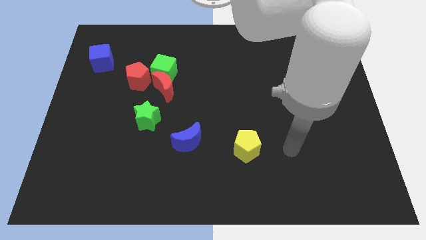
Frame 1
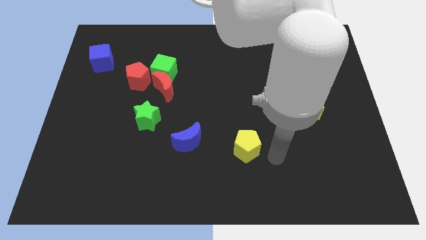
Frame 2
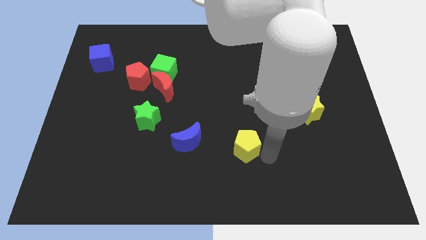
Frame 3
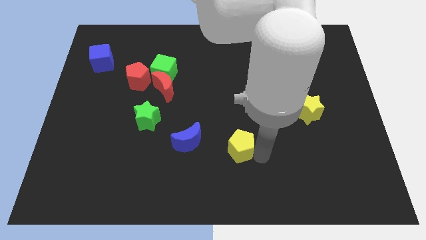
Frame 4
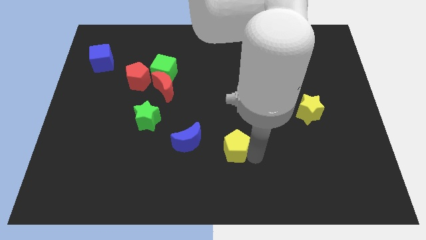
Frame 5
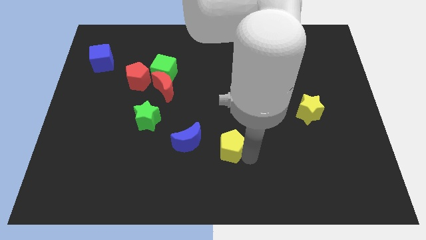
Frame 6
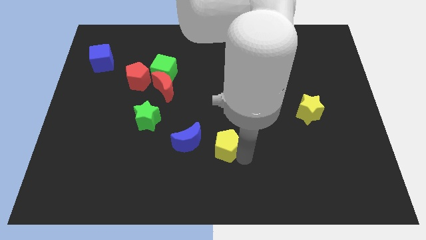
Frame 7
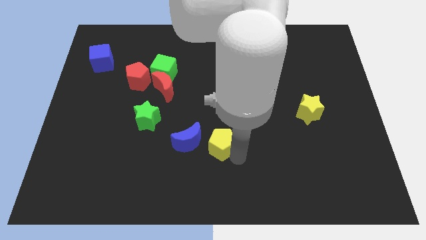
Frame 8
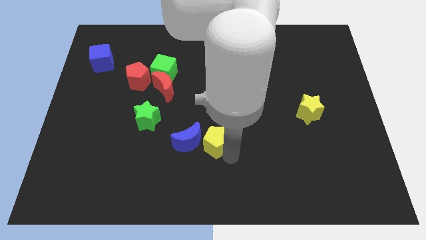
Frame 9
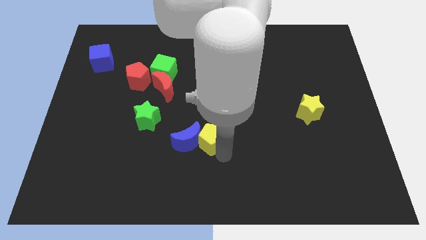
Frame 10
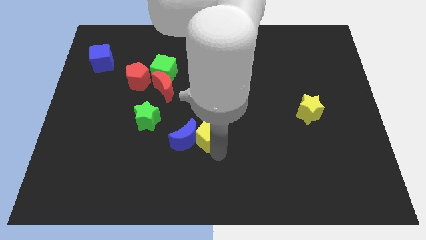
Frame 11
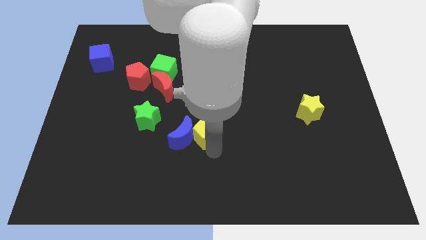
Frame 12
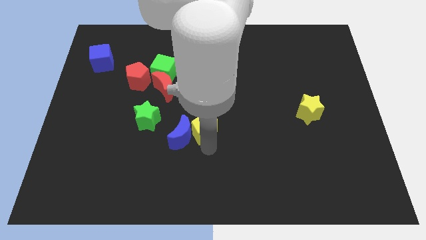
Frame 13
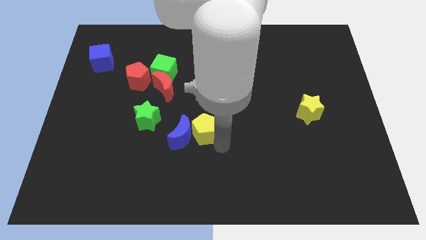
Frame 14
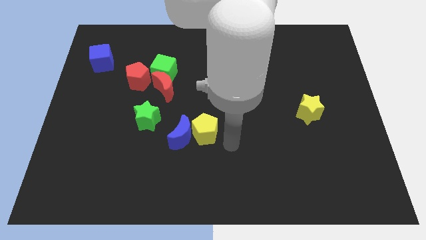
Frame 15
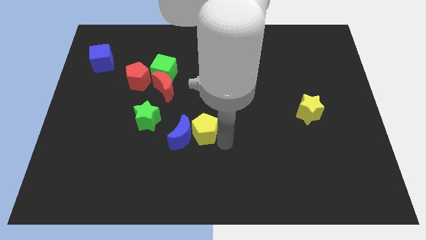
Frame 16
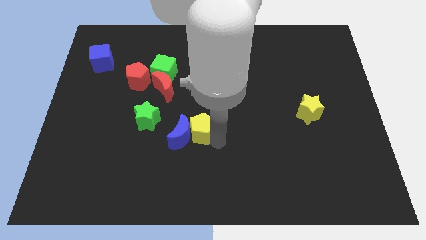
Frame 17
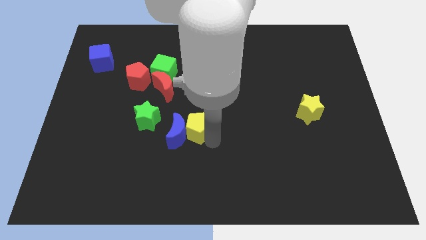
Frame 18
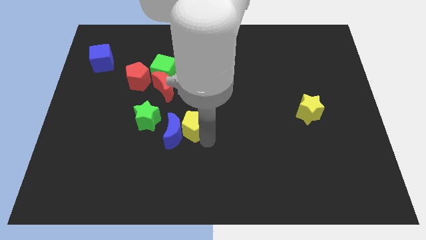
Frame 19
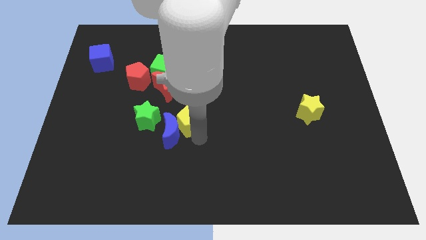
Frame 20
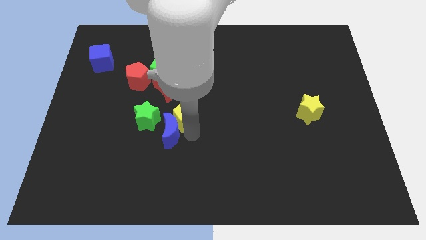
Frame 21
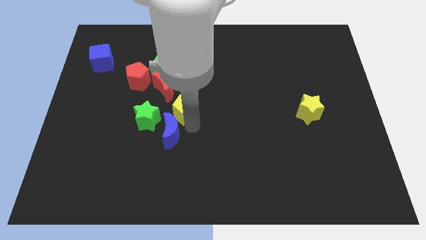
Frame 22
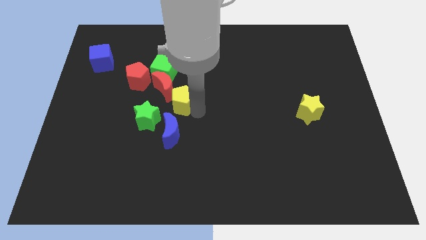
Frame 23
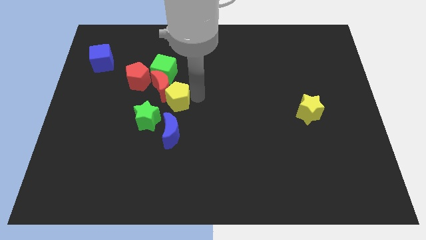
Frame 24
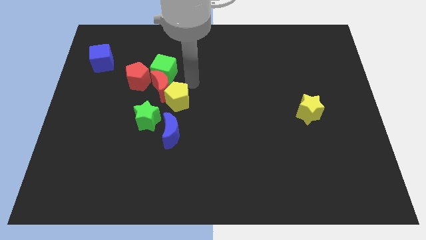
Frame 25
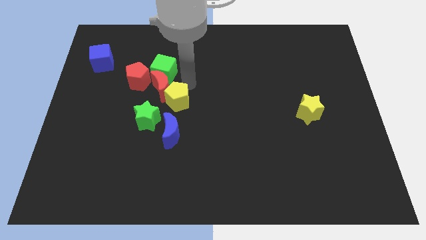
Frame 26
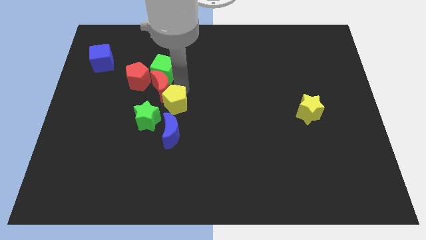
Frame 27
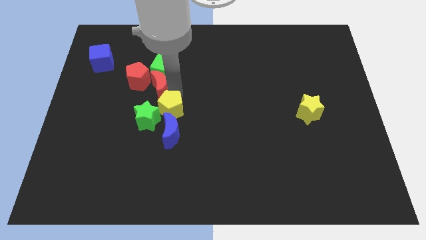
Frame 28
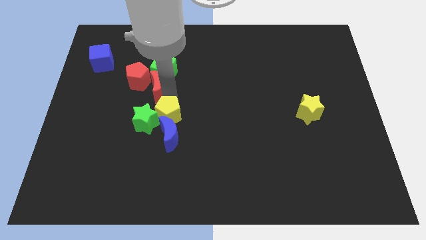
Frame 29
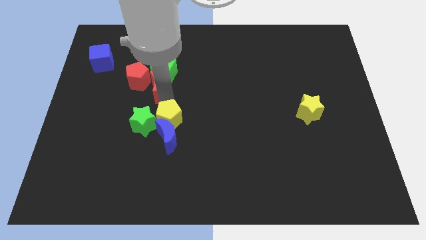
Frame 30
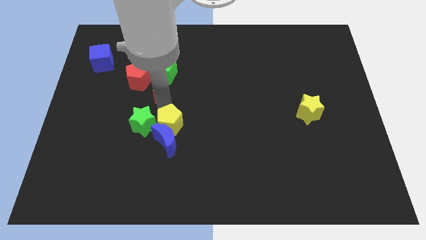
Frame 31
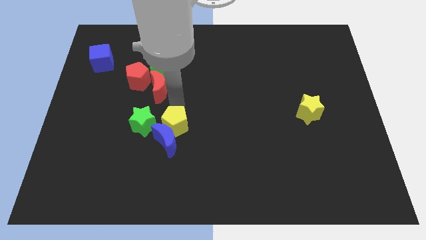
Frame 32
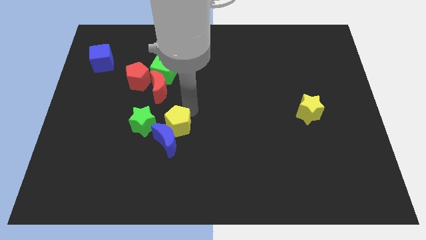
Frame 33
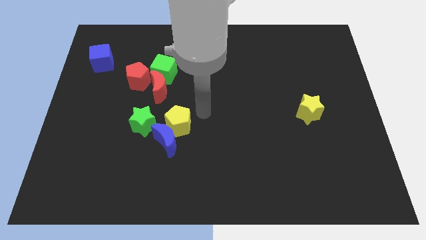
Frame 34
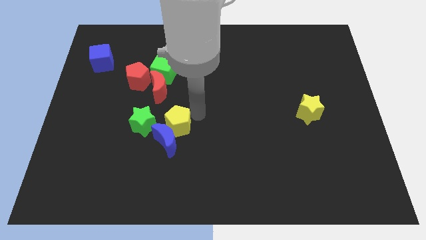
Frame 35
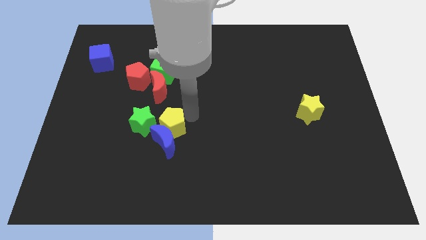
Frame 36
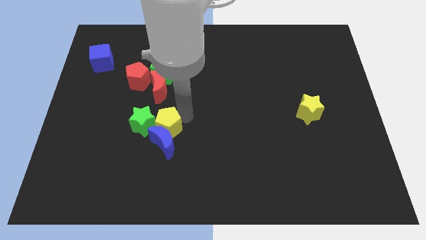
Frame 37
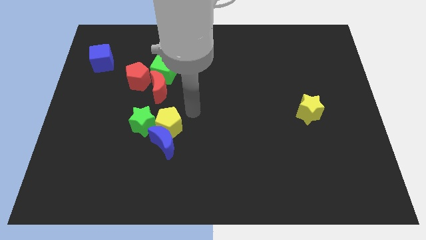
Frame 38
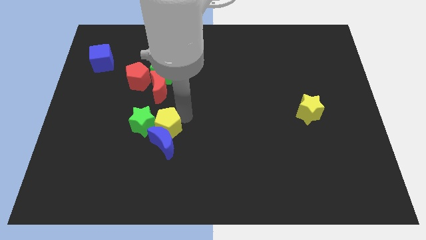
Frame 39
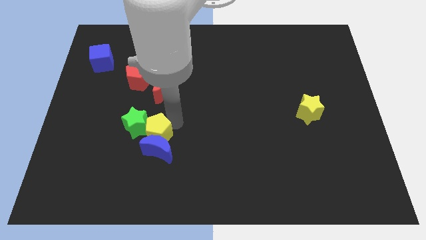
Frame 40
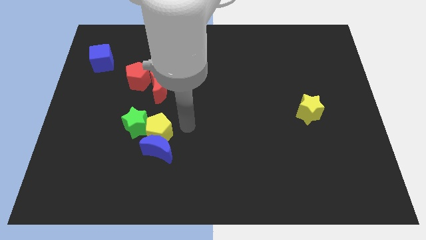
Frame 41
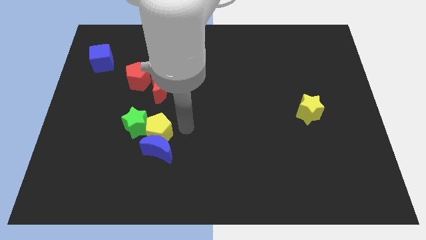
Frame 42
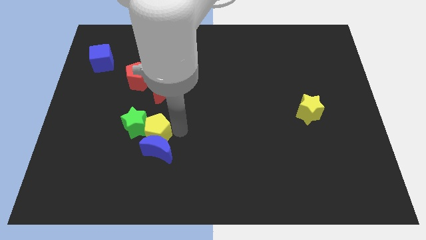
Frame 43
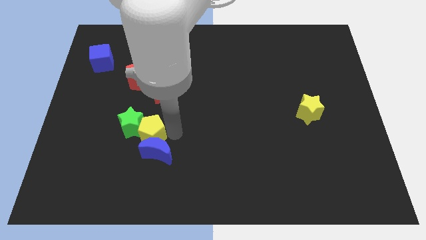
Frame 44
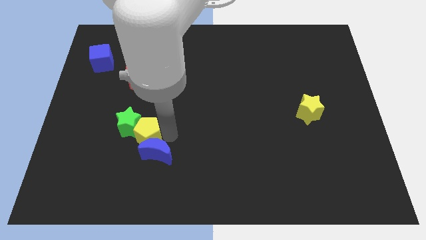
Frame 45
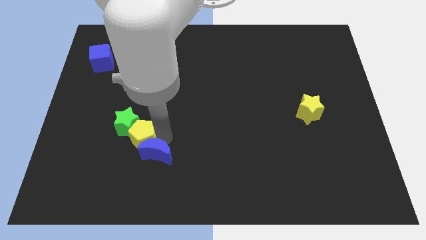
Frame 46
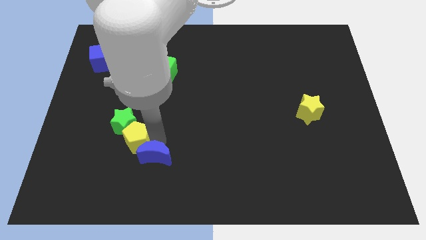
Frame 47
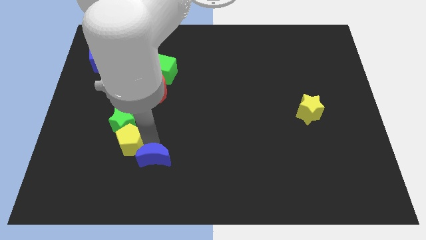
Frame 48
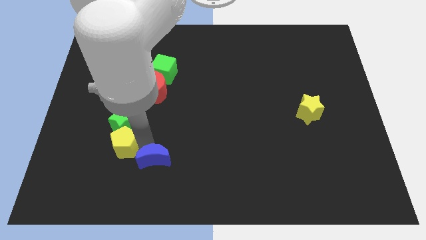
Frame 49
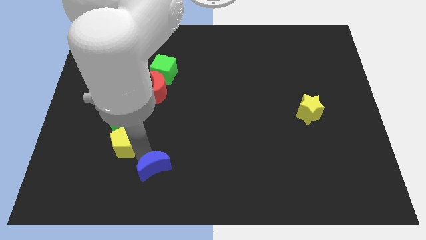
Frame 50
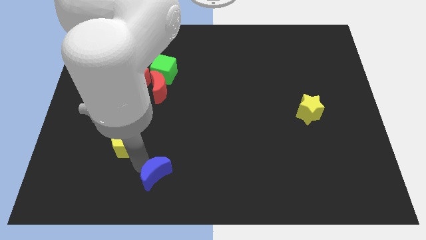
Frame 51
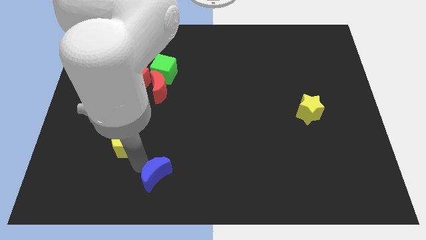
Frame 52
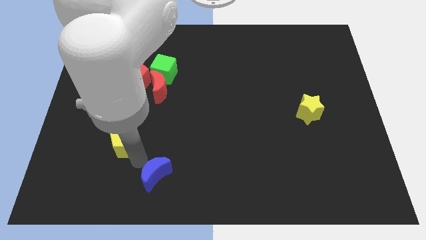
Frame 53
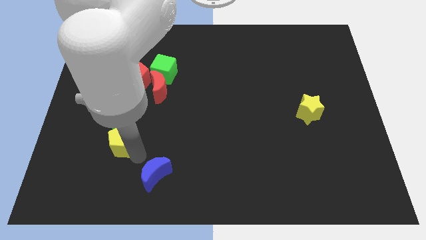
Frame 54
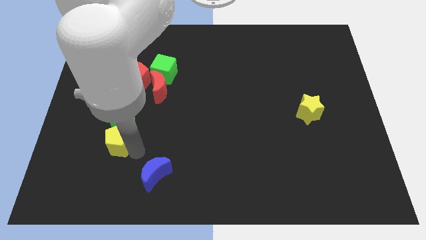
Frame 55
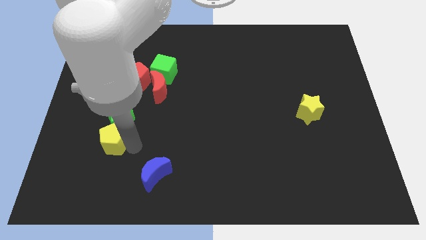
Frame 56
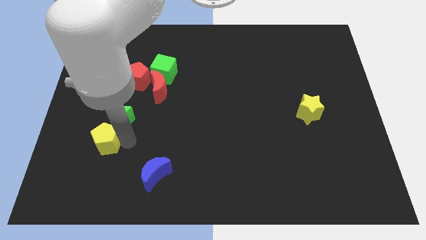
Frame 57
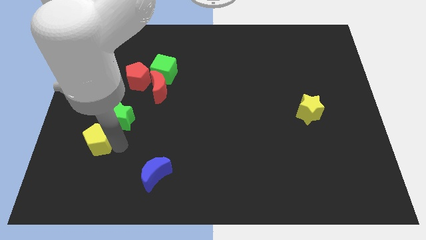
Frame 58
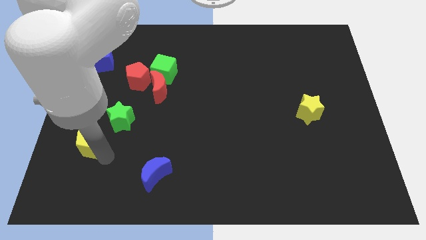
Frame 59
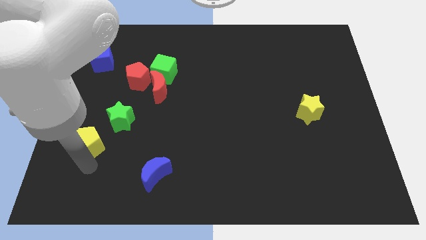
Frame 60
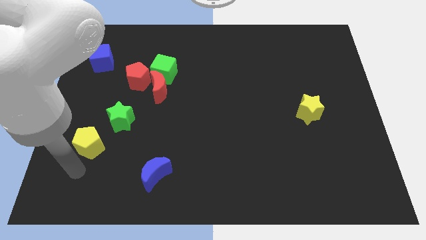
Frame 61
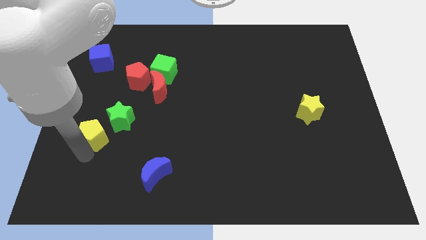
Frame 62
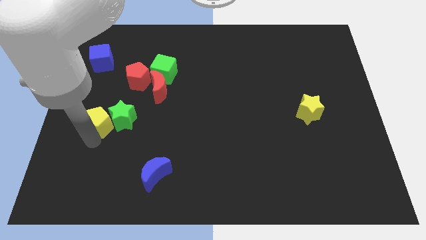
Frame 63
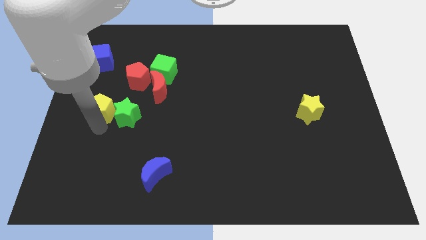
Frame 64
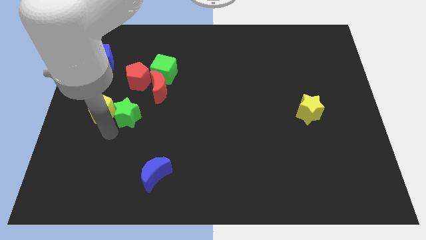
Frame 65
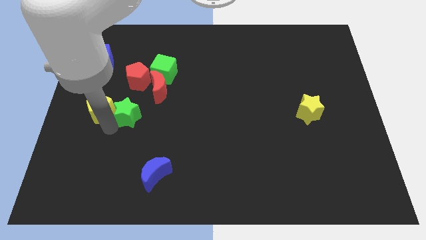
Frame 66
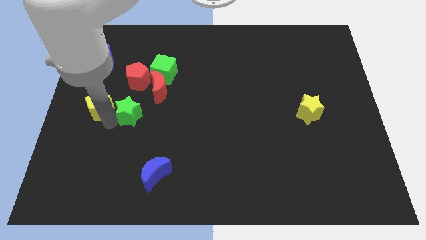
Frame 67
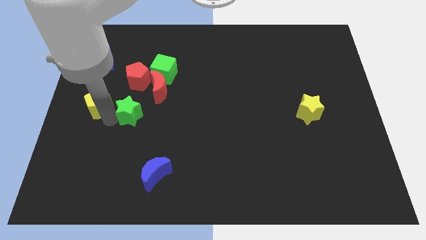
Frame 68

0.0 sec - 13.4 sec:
put the yellow pentagon to the bottom side of the blue cube

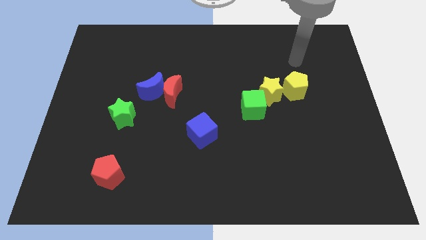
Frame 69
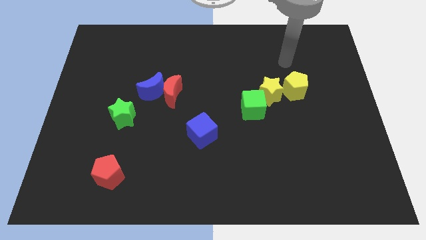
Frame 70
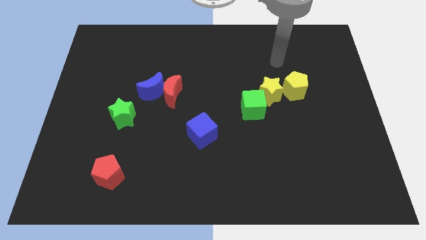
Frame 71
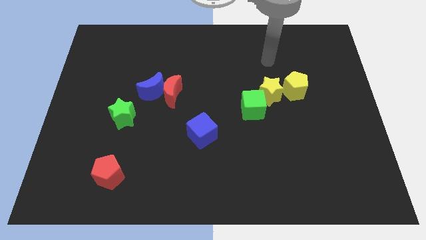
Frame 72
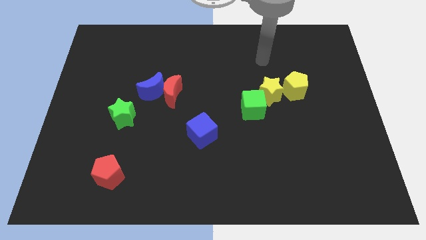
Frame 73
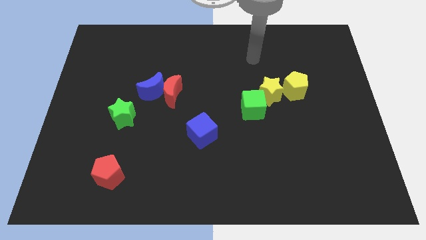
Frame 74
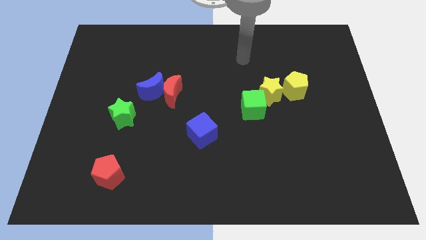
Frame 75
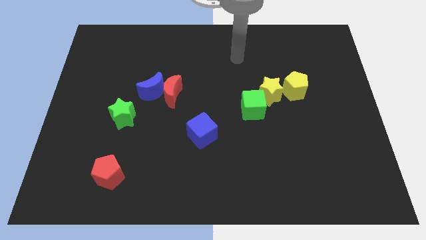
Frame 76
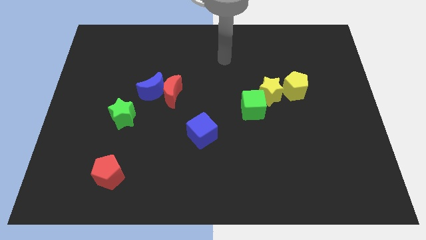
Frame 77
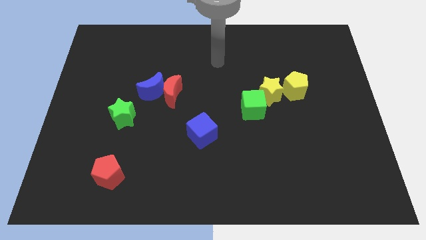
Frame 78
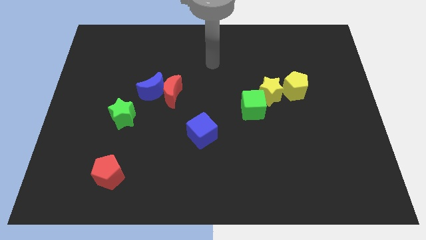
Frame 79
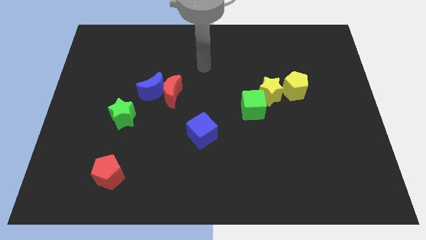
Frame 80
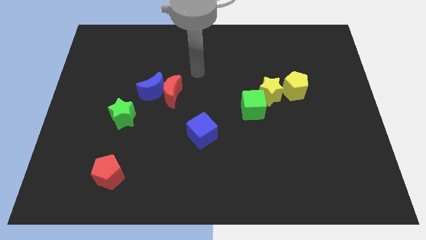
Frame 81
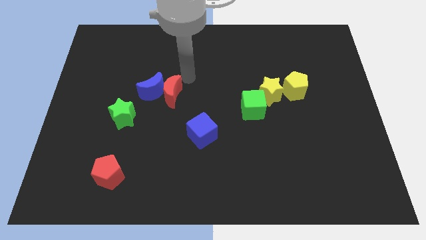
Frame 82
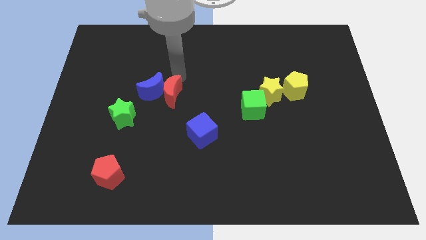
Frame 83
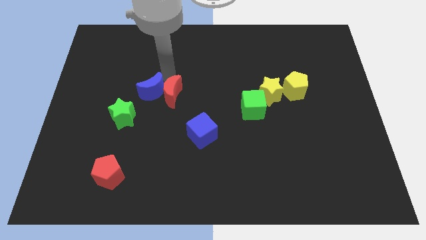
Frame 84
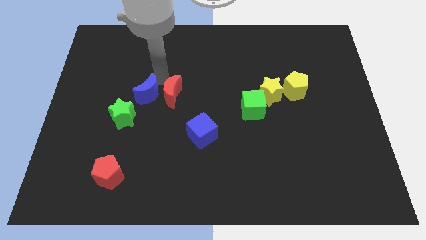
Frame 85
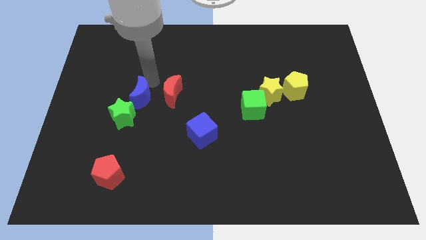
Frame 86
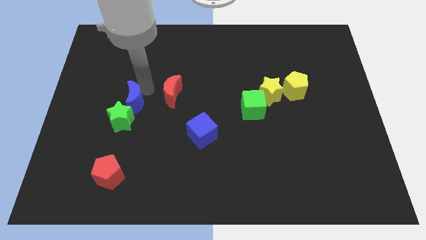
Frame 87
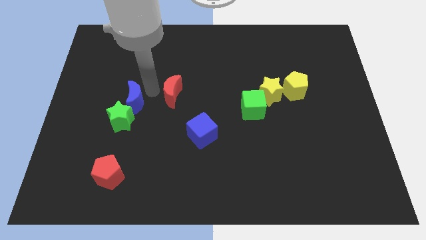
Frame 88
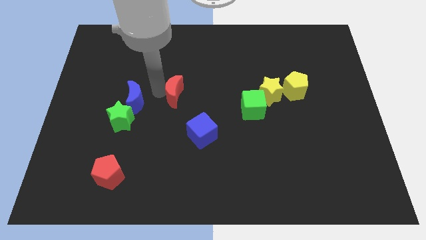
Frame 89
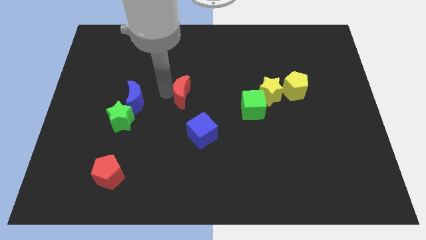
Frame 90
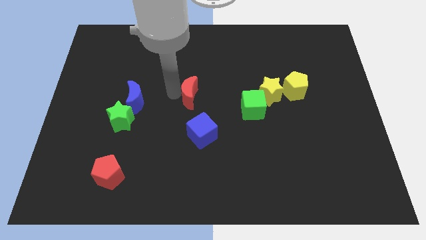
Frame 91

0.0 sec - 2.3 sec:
put the red moon to the top of the blue cube
